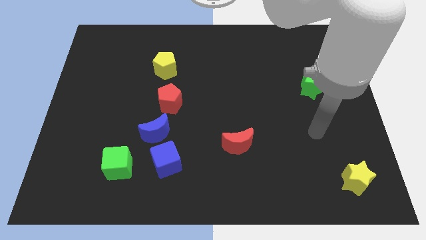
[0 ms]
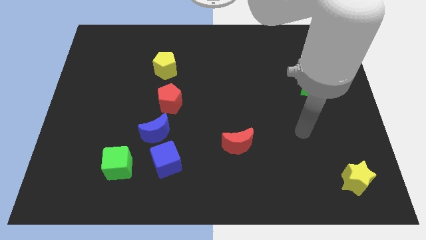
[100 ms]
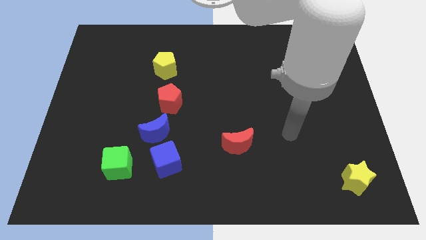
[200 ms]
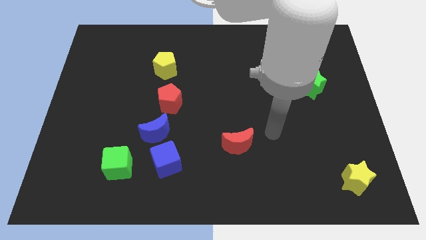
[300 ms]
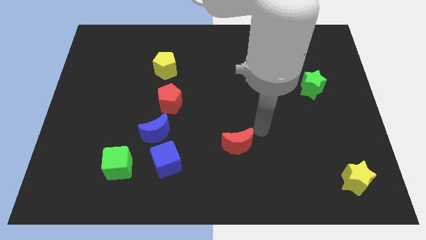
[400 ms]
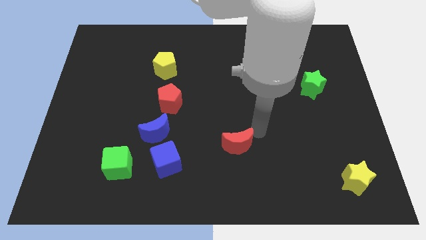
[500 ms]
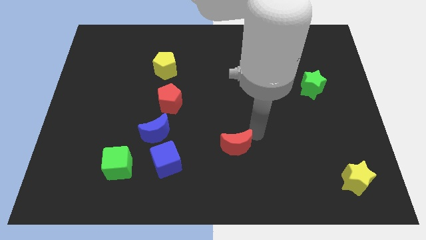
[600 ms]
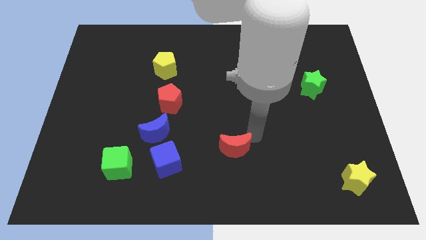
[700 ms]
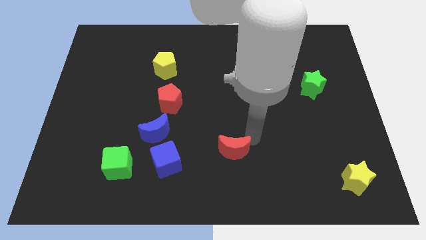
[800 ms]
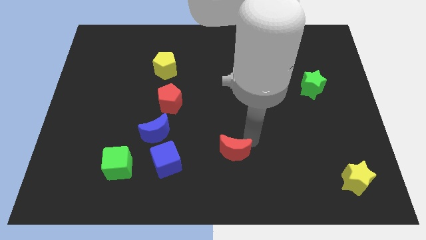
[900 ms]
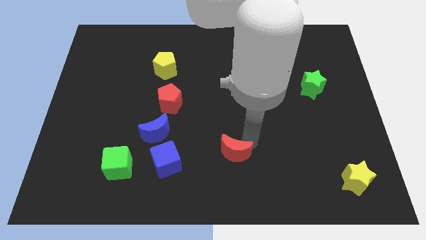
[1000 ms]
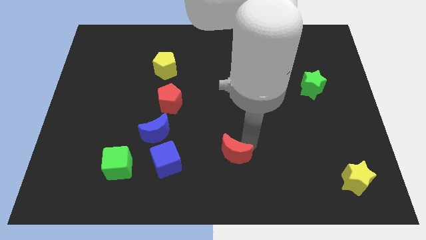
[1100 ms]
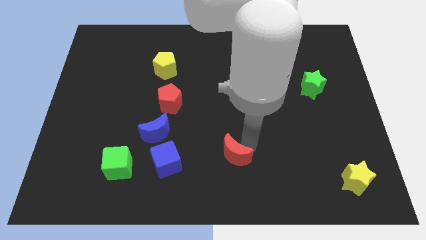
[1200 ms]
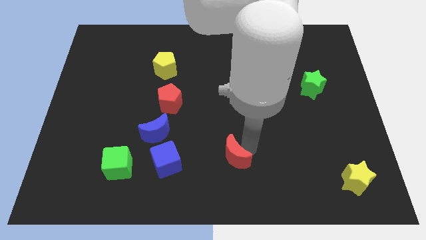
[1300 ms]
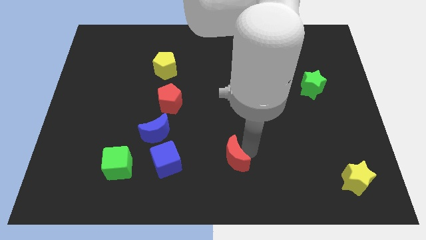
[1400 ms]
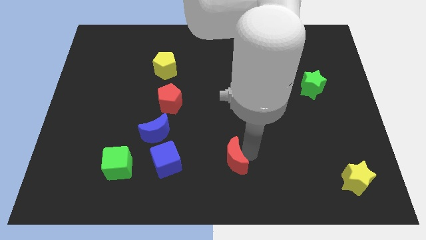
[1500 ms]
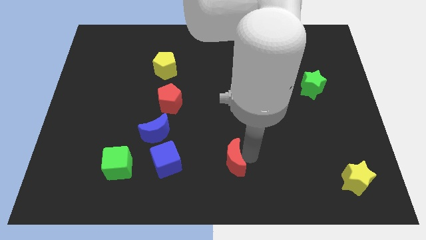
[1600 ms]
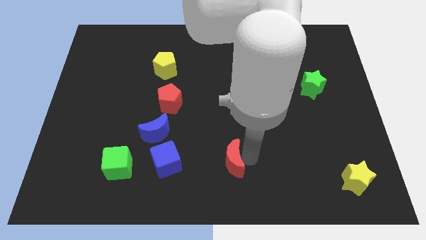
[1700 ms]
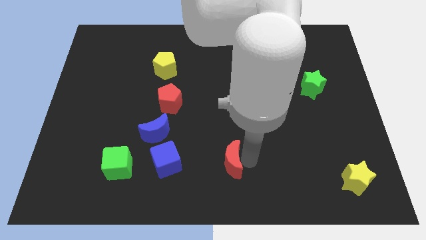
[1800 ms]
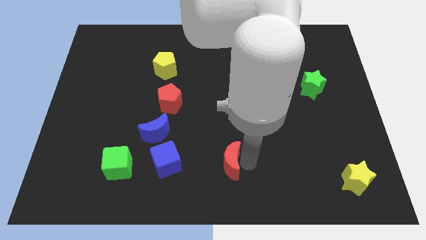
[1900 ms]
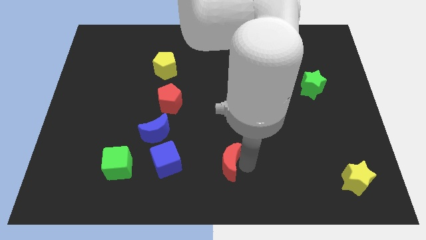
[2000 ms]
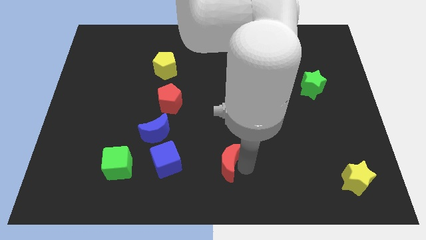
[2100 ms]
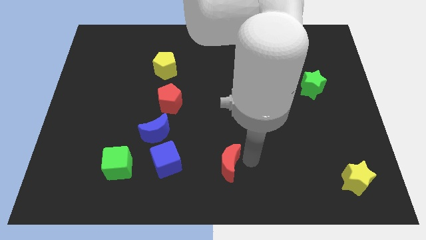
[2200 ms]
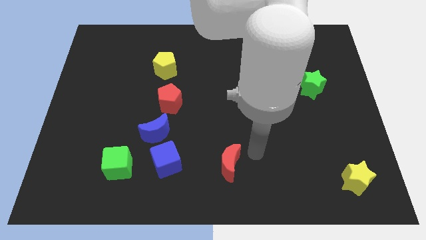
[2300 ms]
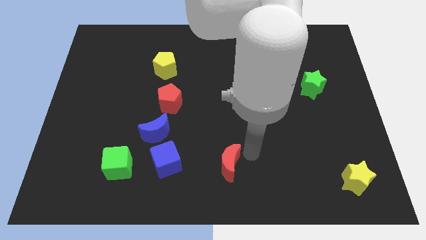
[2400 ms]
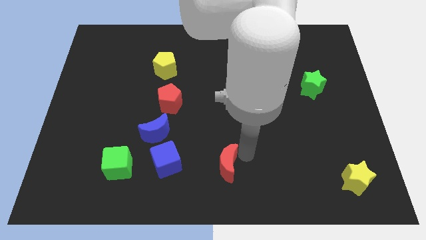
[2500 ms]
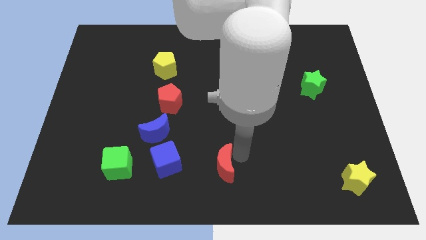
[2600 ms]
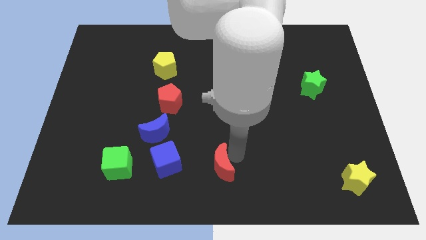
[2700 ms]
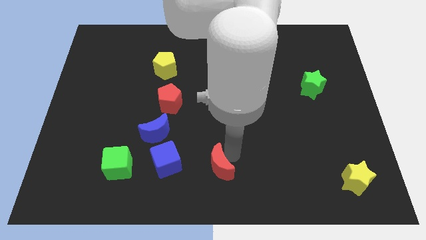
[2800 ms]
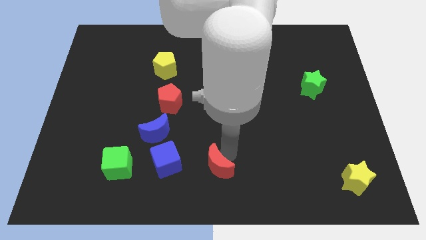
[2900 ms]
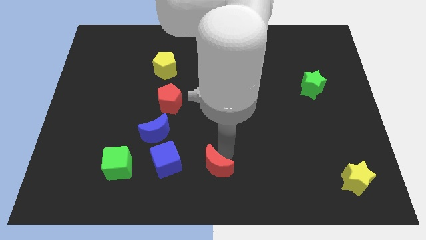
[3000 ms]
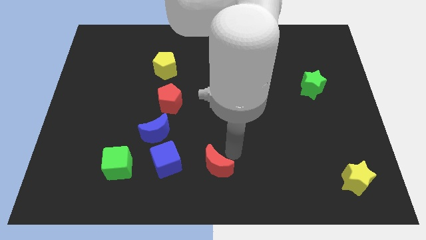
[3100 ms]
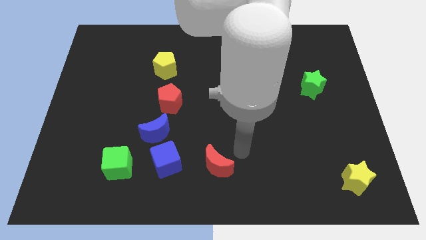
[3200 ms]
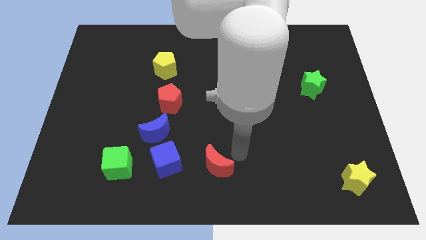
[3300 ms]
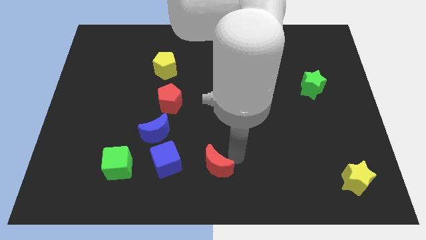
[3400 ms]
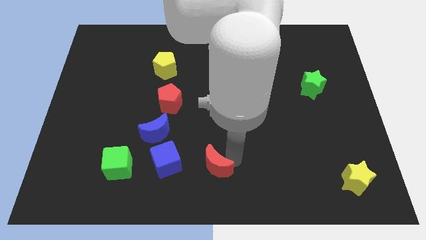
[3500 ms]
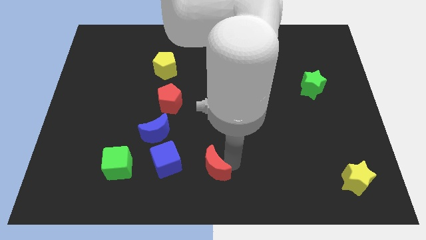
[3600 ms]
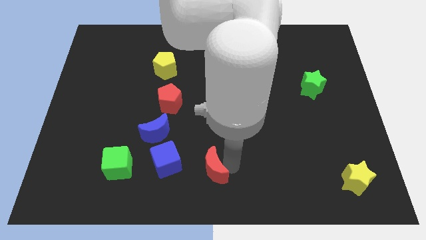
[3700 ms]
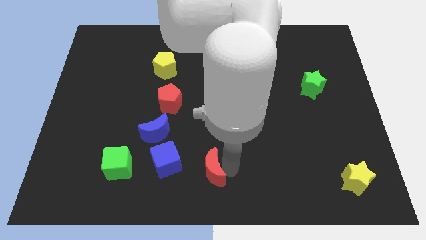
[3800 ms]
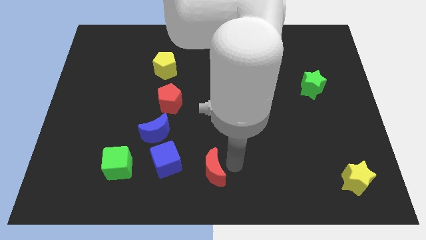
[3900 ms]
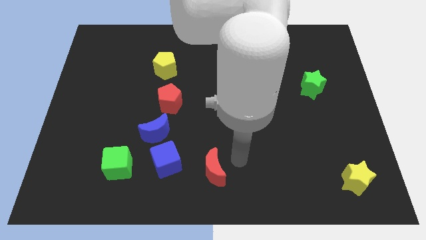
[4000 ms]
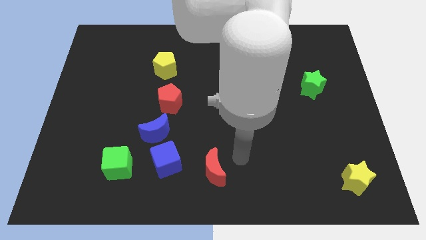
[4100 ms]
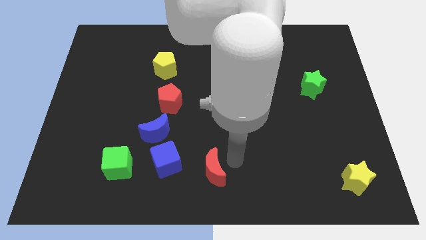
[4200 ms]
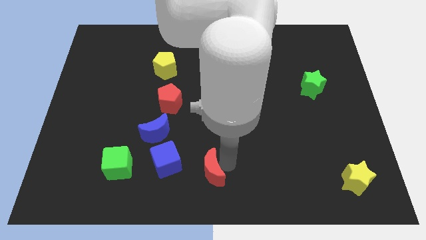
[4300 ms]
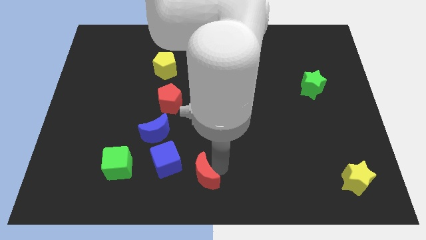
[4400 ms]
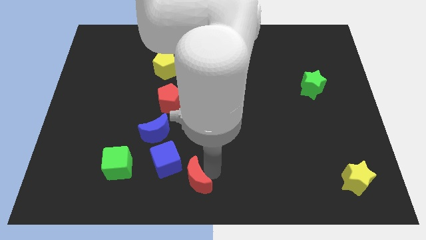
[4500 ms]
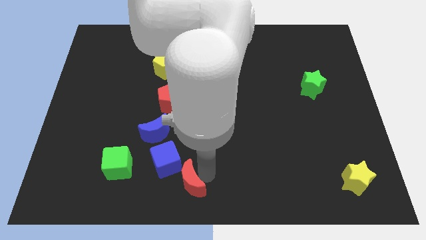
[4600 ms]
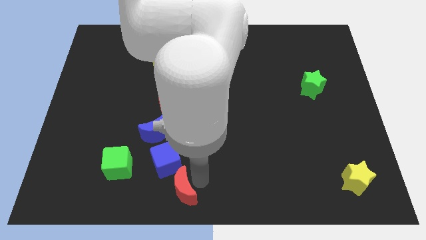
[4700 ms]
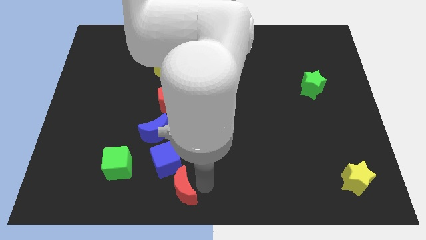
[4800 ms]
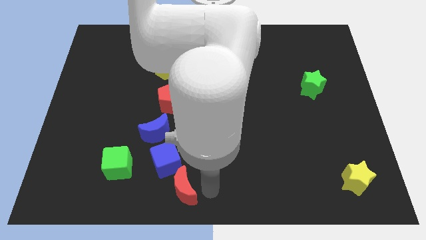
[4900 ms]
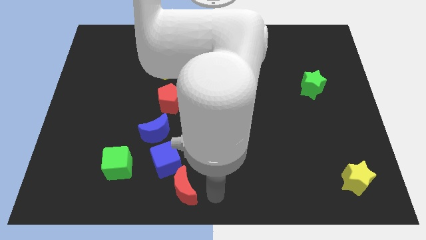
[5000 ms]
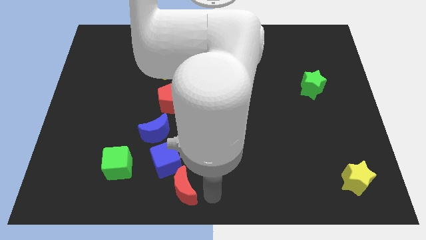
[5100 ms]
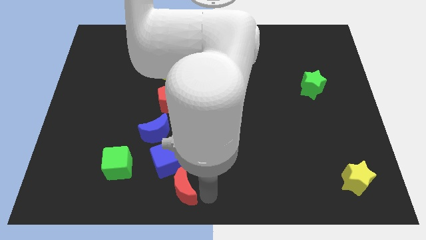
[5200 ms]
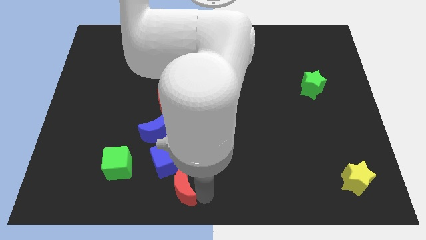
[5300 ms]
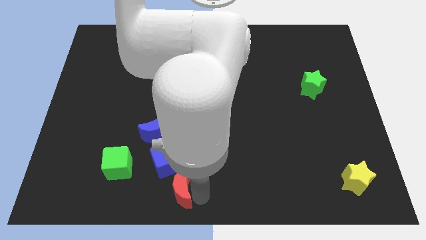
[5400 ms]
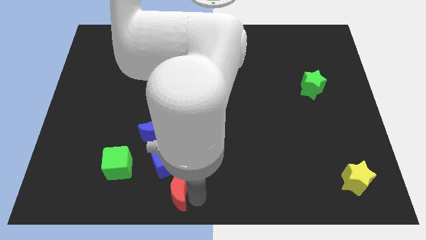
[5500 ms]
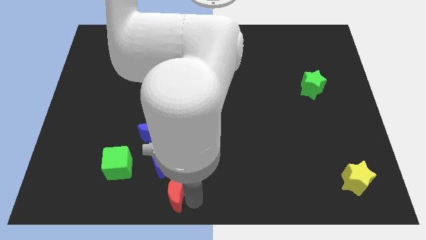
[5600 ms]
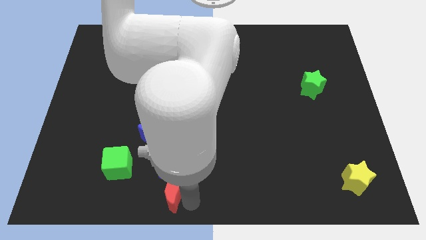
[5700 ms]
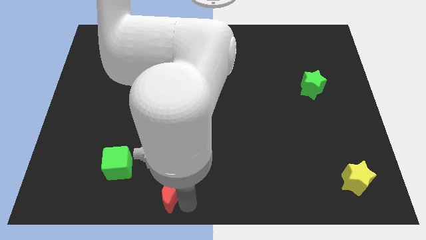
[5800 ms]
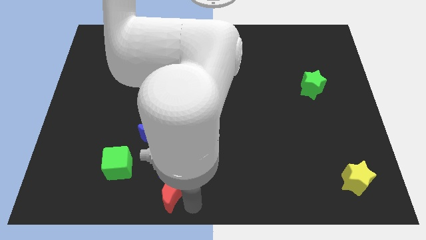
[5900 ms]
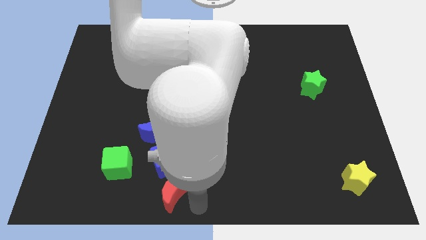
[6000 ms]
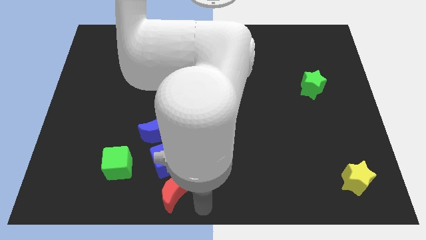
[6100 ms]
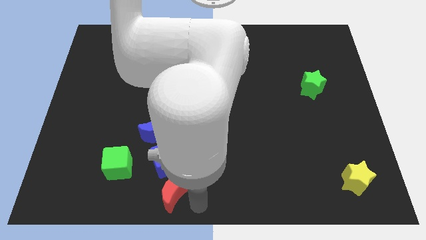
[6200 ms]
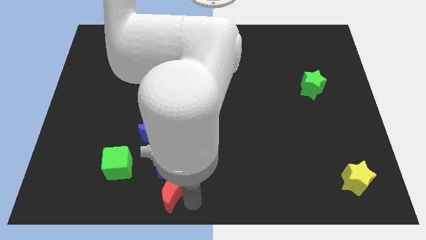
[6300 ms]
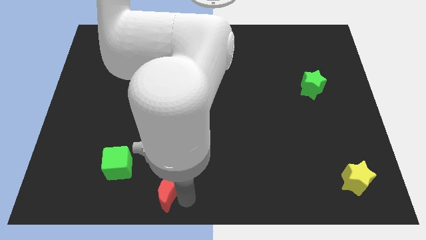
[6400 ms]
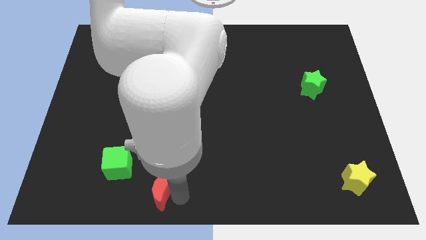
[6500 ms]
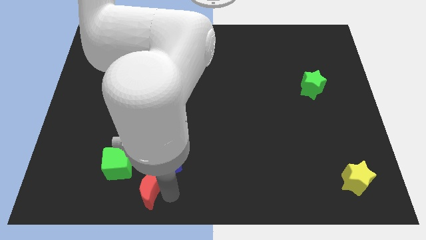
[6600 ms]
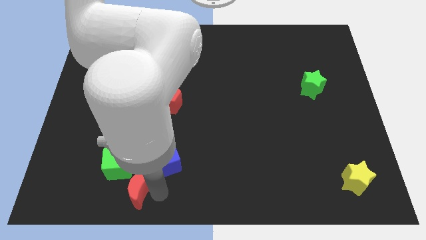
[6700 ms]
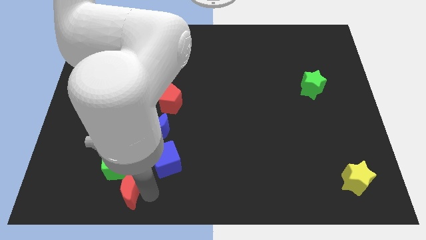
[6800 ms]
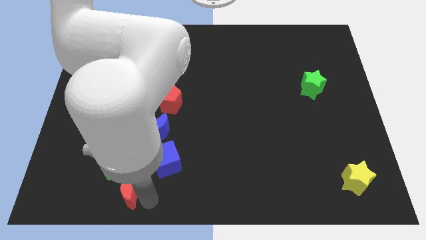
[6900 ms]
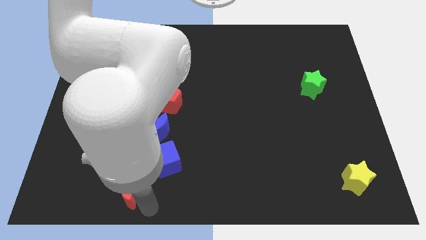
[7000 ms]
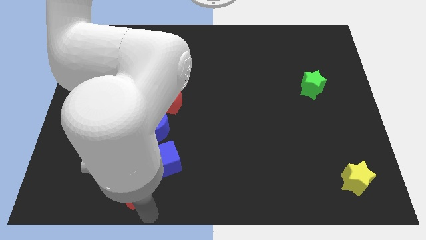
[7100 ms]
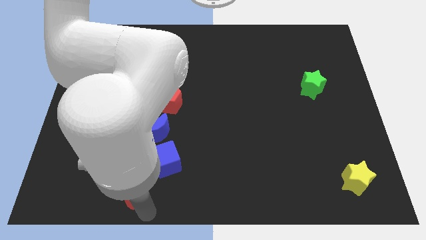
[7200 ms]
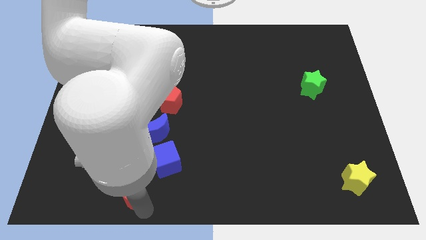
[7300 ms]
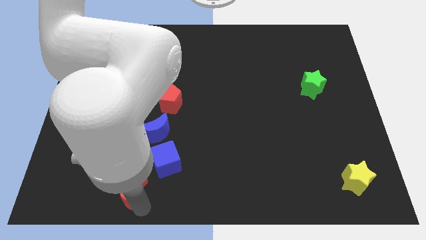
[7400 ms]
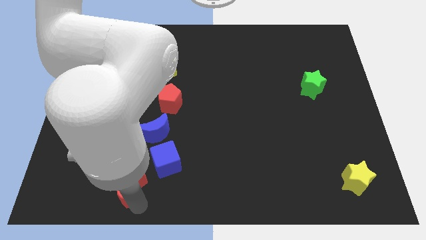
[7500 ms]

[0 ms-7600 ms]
move the red moon towards the green cube
